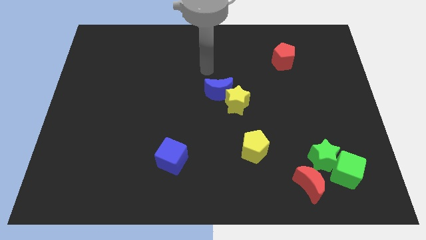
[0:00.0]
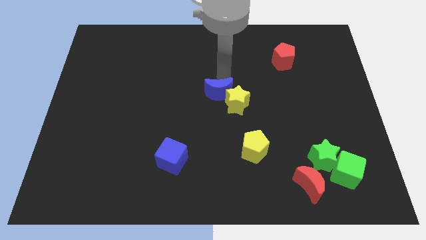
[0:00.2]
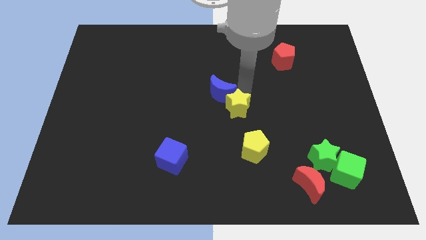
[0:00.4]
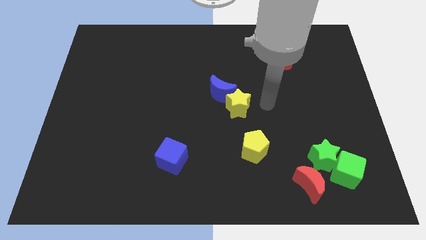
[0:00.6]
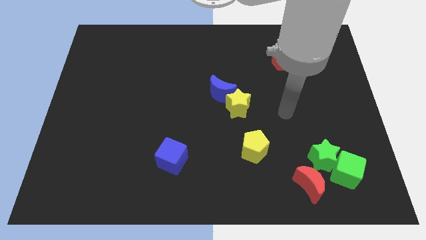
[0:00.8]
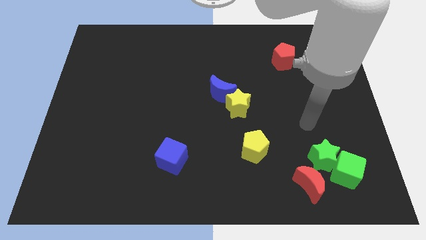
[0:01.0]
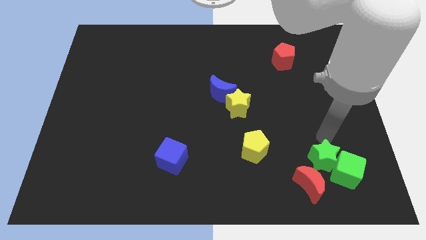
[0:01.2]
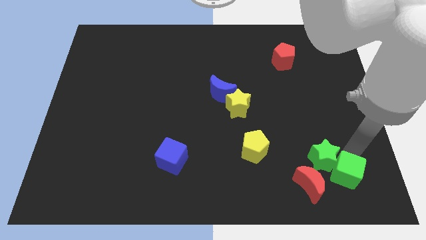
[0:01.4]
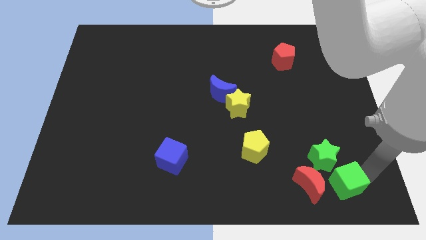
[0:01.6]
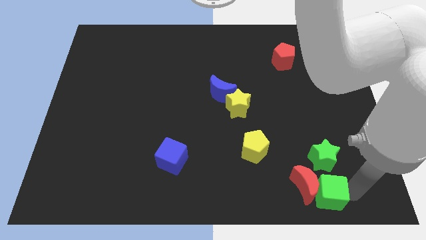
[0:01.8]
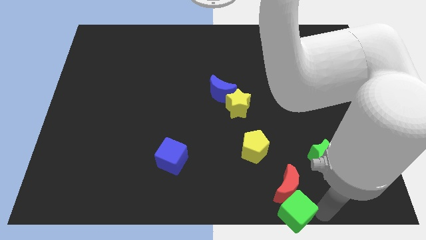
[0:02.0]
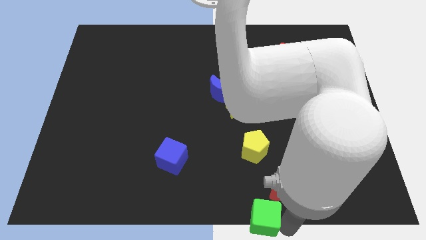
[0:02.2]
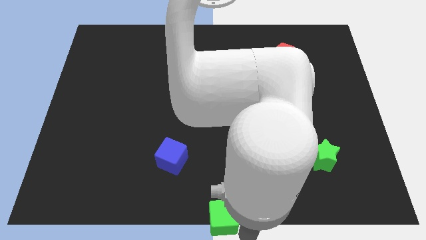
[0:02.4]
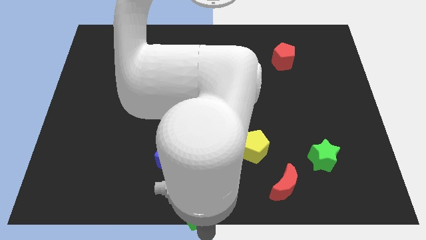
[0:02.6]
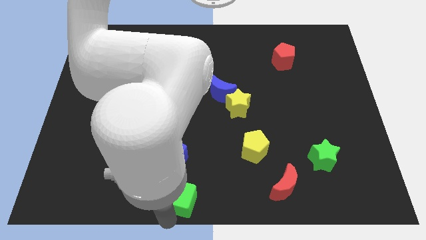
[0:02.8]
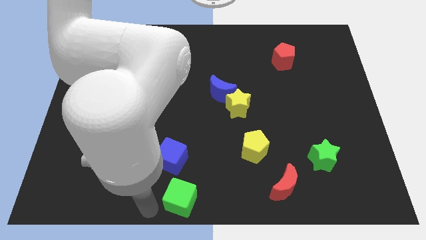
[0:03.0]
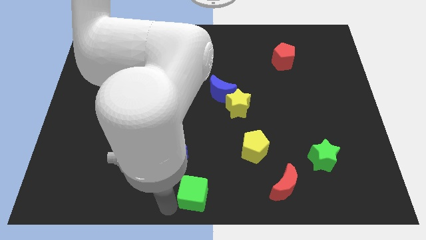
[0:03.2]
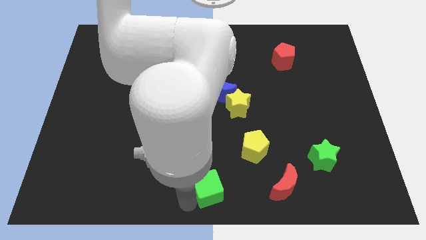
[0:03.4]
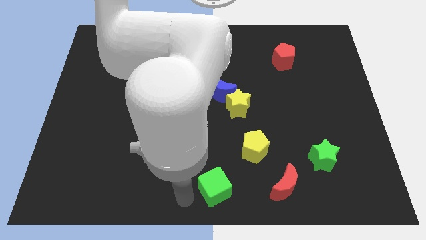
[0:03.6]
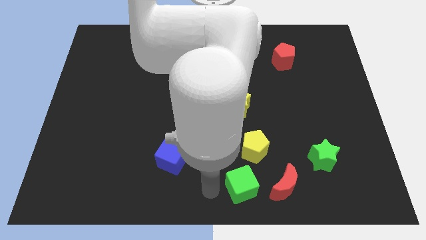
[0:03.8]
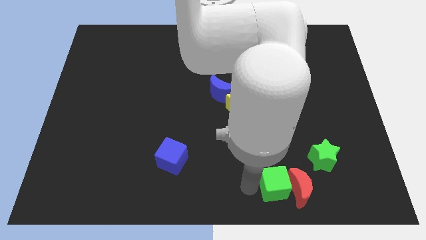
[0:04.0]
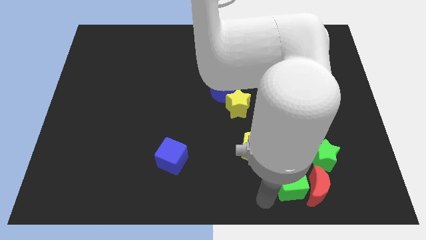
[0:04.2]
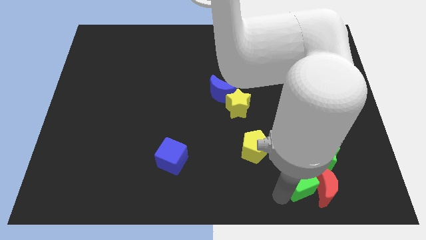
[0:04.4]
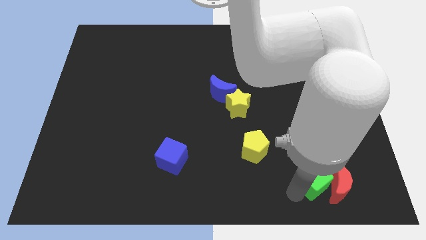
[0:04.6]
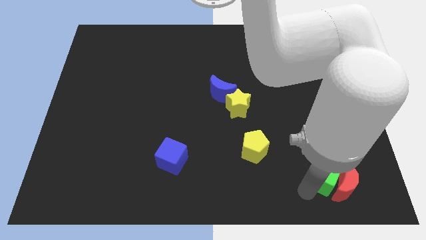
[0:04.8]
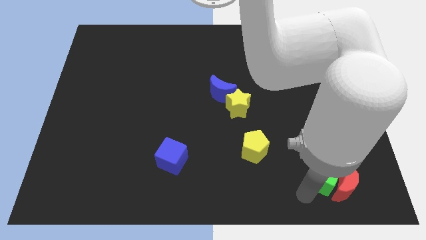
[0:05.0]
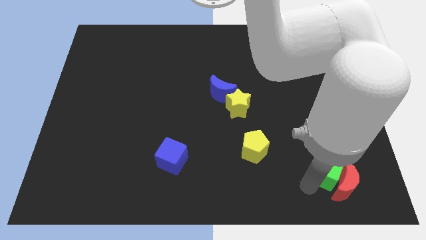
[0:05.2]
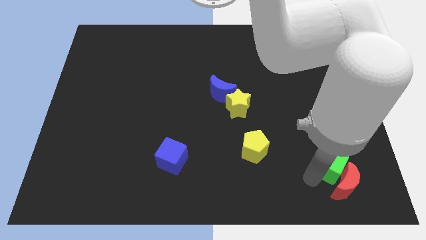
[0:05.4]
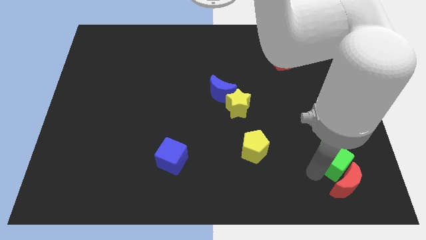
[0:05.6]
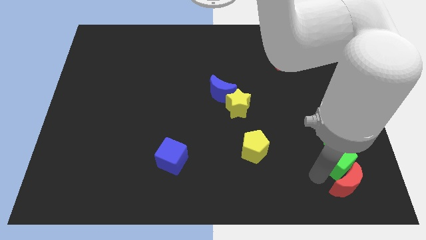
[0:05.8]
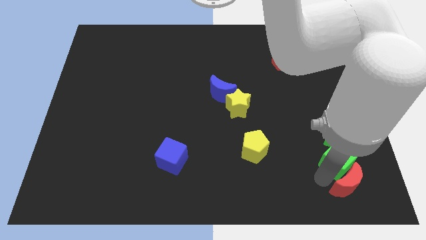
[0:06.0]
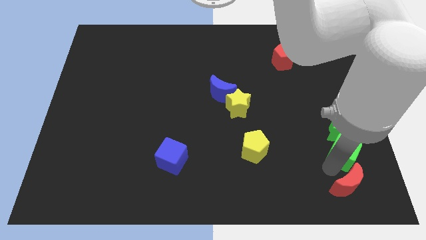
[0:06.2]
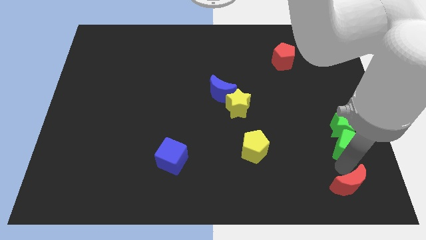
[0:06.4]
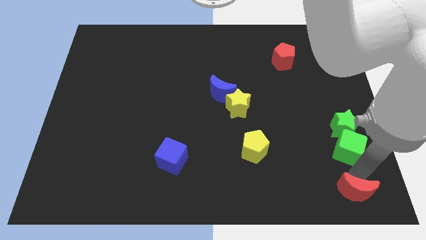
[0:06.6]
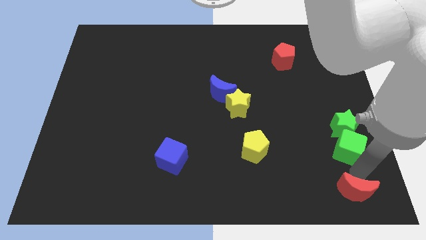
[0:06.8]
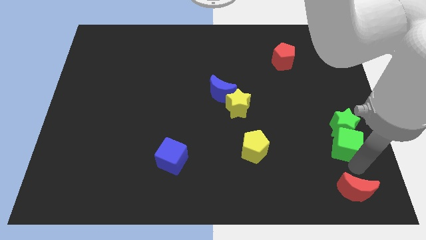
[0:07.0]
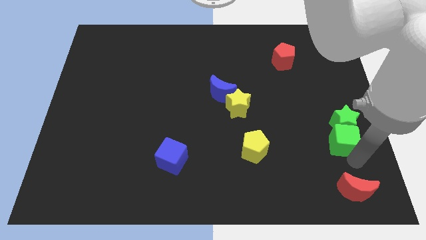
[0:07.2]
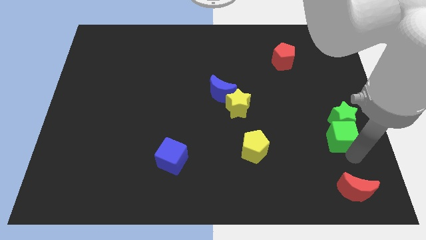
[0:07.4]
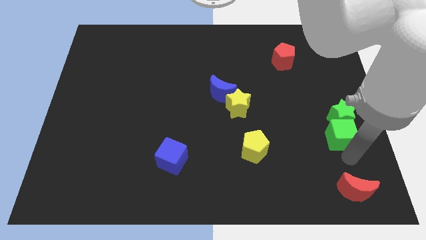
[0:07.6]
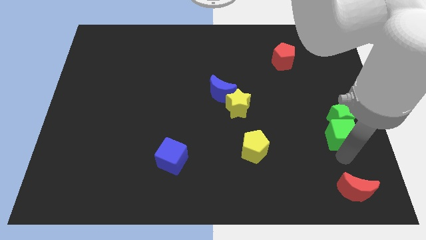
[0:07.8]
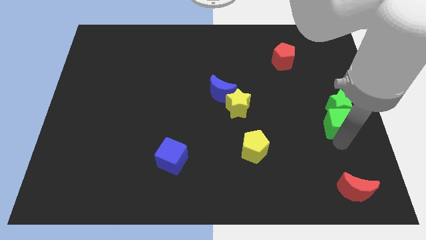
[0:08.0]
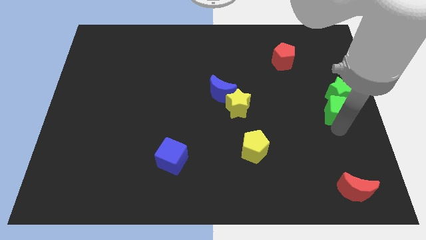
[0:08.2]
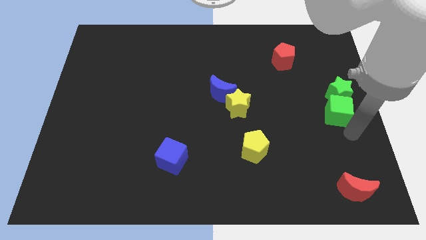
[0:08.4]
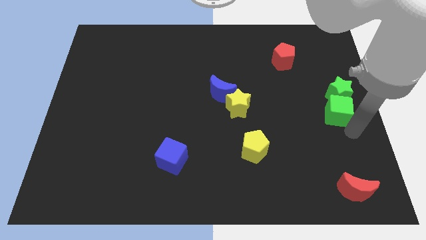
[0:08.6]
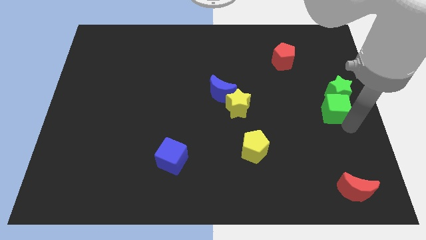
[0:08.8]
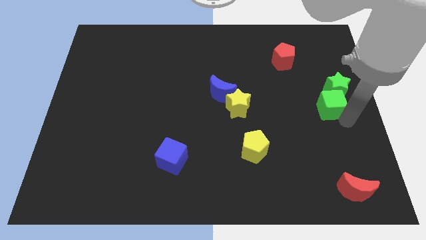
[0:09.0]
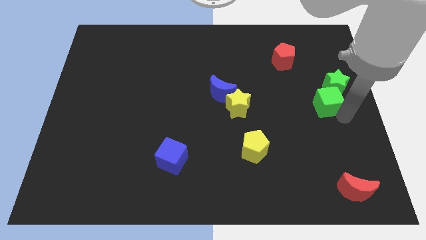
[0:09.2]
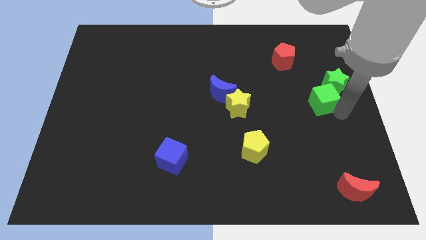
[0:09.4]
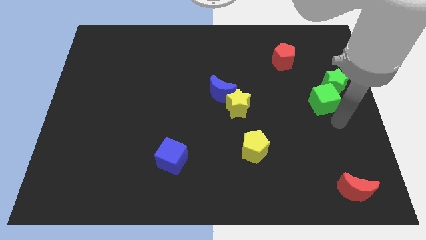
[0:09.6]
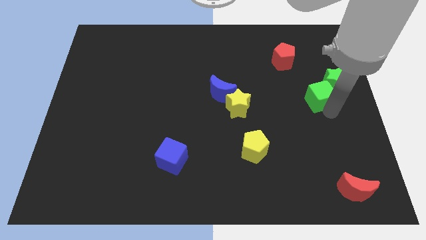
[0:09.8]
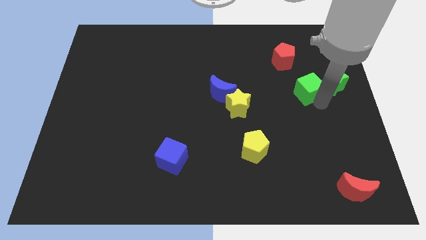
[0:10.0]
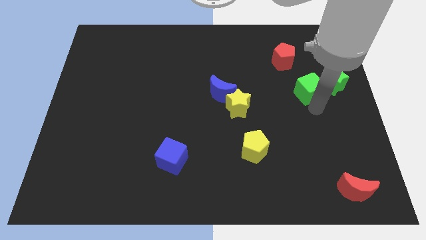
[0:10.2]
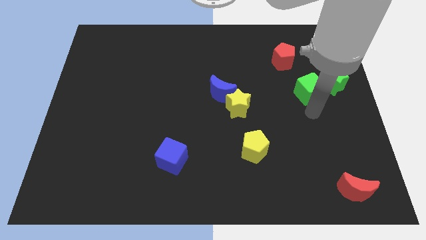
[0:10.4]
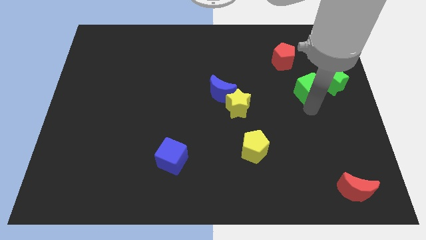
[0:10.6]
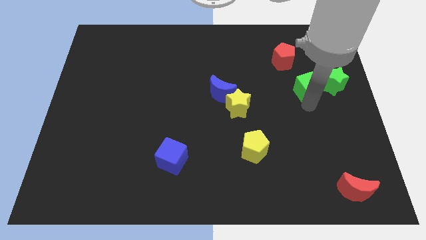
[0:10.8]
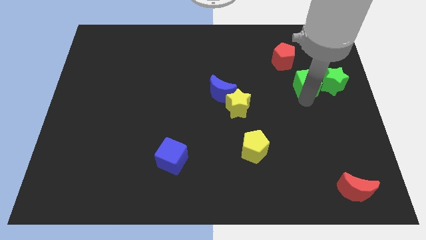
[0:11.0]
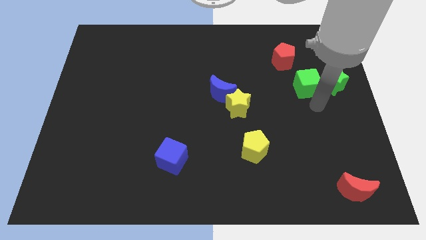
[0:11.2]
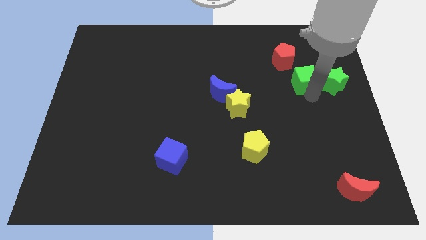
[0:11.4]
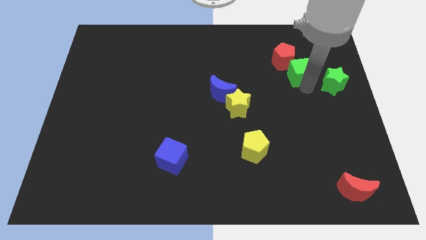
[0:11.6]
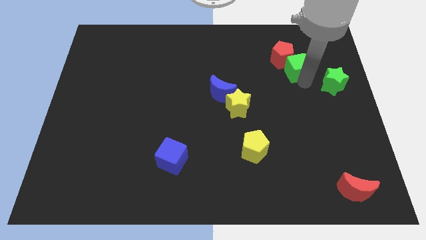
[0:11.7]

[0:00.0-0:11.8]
push the green cube towards the red pentagon

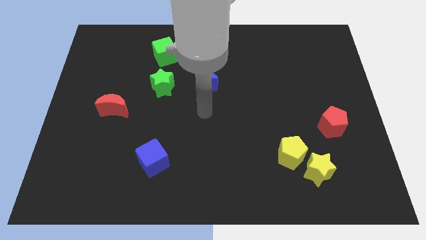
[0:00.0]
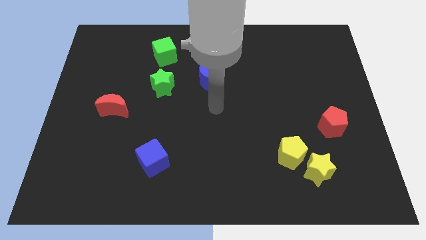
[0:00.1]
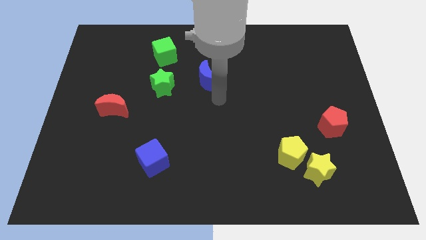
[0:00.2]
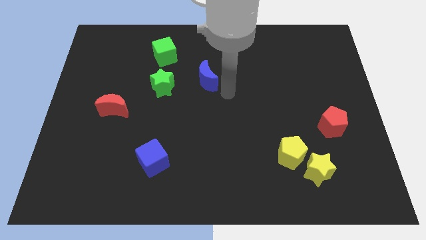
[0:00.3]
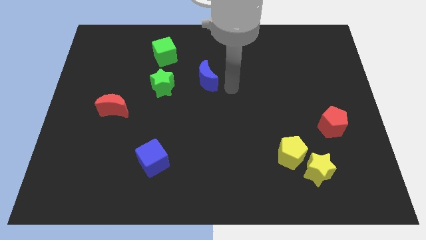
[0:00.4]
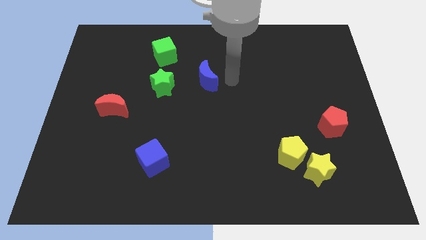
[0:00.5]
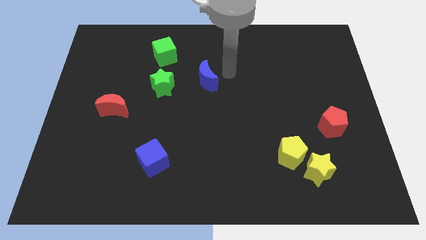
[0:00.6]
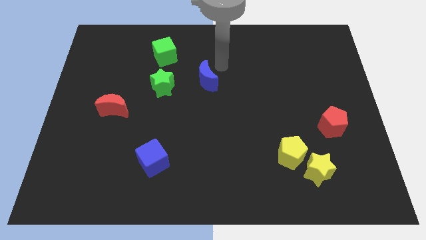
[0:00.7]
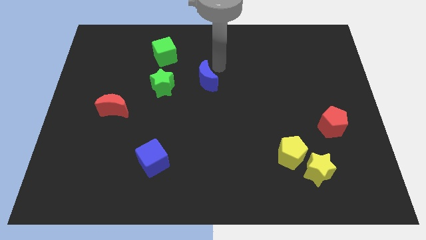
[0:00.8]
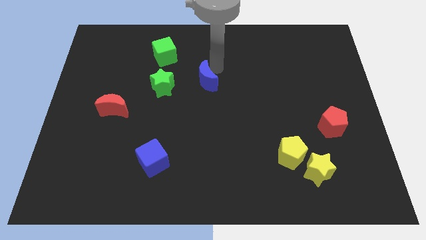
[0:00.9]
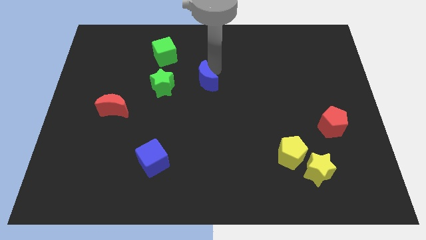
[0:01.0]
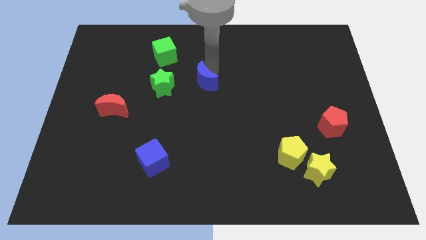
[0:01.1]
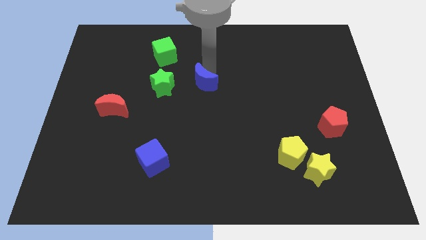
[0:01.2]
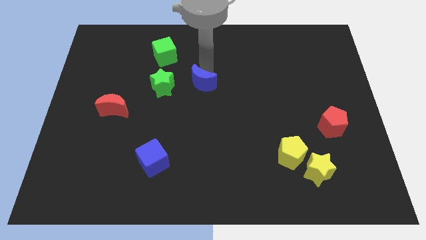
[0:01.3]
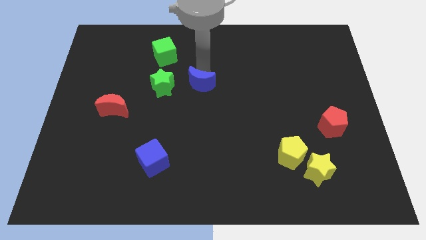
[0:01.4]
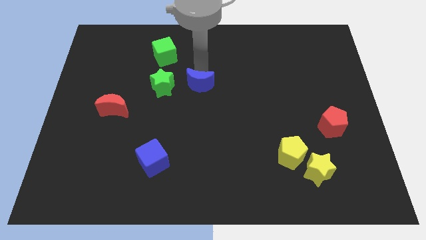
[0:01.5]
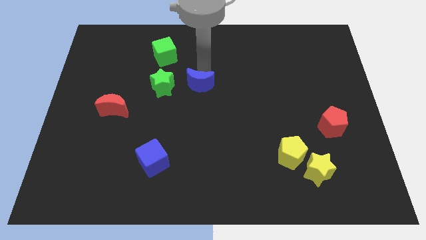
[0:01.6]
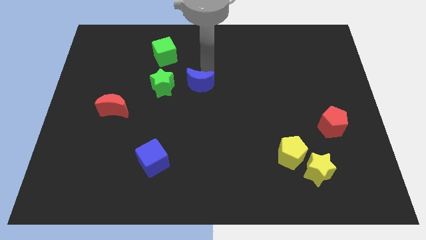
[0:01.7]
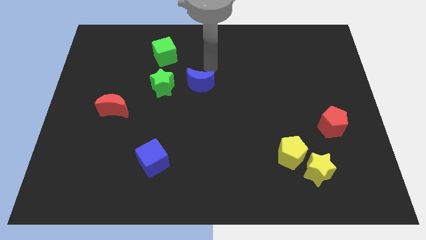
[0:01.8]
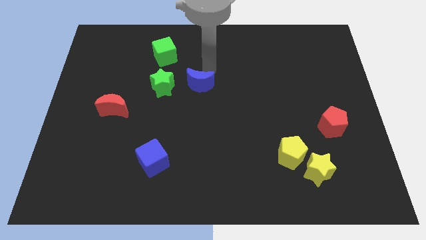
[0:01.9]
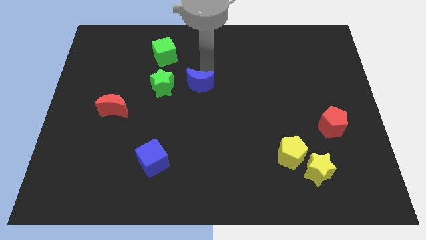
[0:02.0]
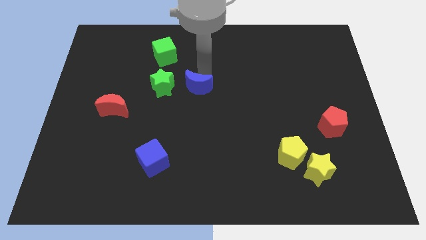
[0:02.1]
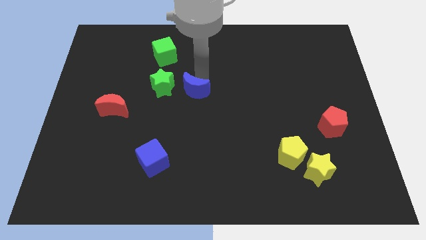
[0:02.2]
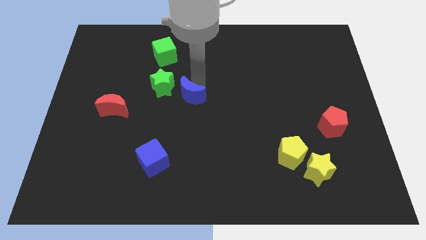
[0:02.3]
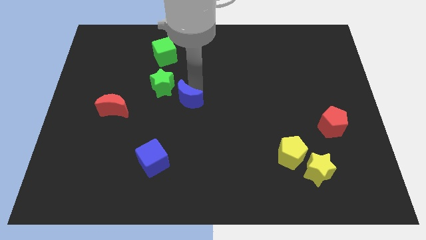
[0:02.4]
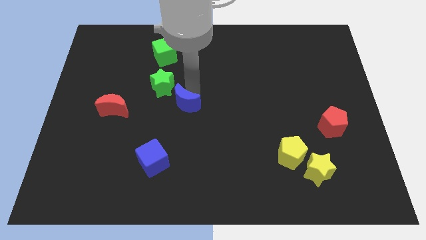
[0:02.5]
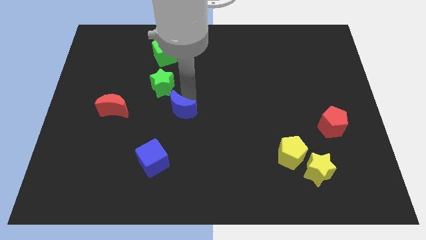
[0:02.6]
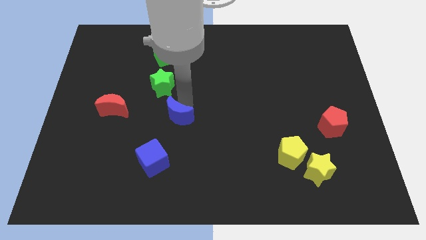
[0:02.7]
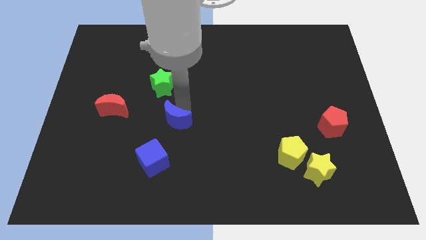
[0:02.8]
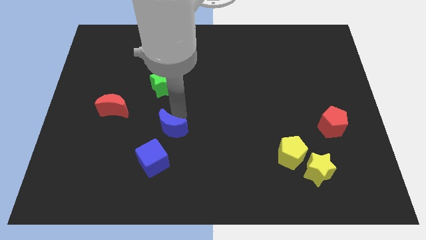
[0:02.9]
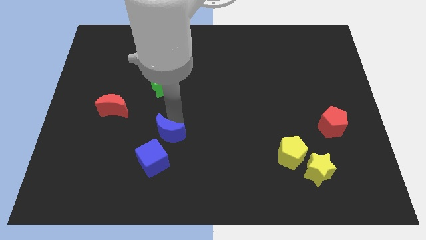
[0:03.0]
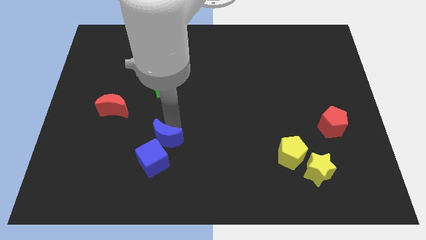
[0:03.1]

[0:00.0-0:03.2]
put the blue moon to the blue cube
